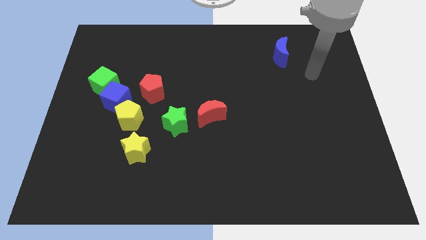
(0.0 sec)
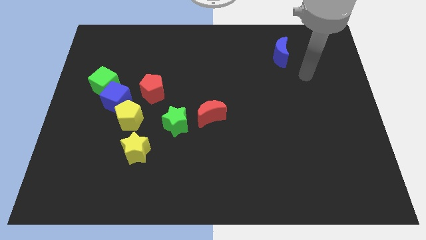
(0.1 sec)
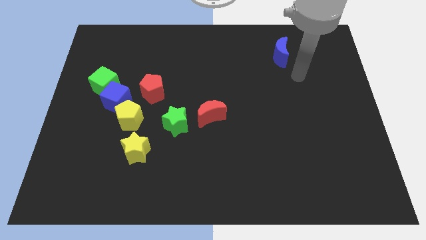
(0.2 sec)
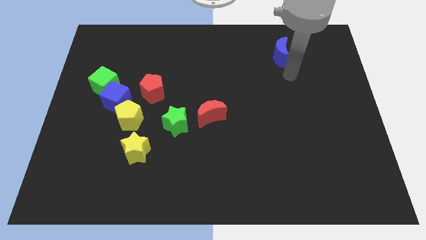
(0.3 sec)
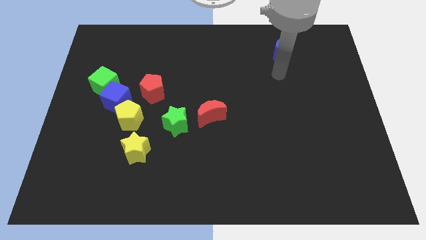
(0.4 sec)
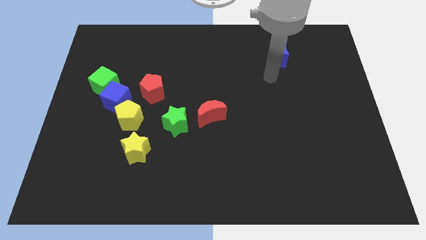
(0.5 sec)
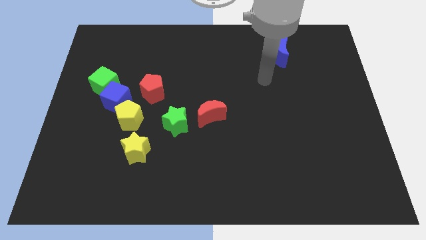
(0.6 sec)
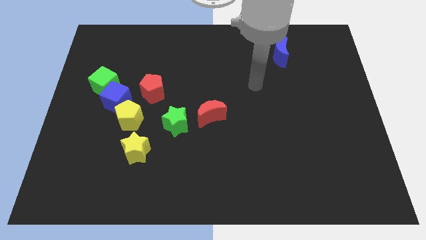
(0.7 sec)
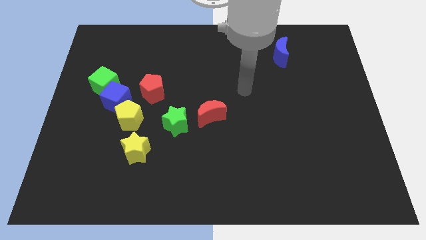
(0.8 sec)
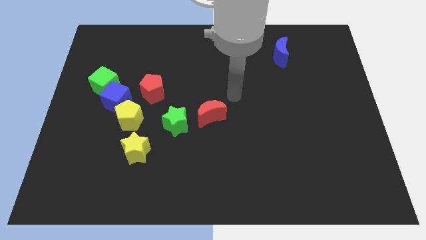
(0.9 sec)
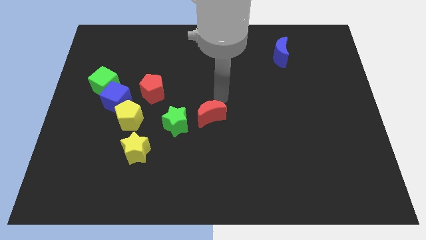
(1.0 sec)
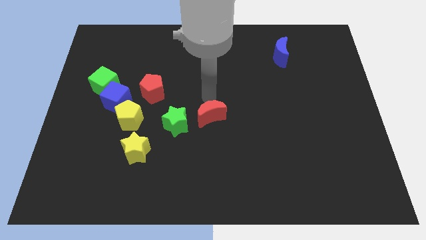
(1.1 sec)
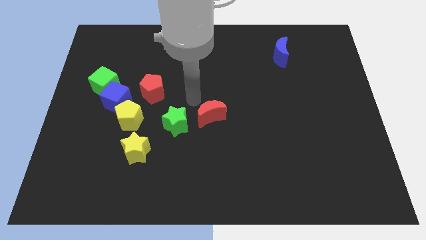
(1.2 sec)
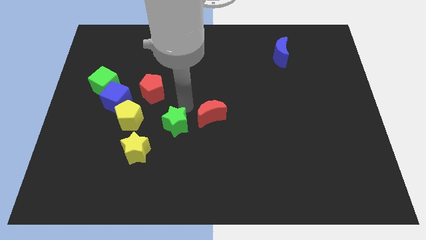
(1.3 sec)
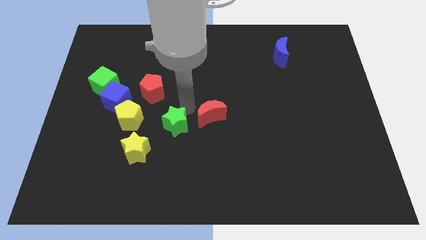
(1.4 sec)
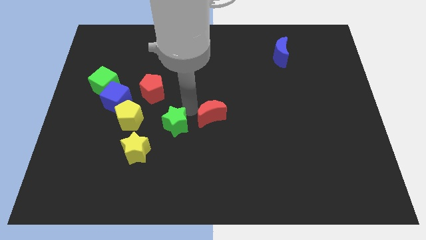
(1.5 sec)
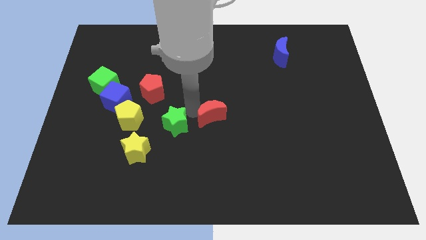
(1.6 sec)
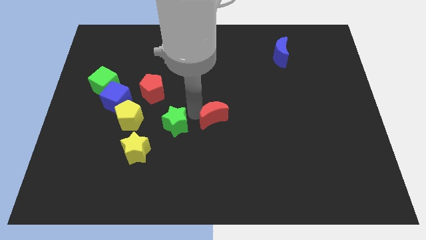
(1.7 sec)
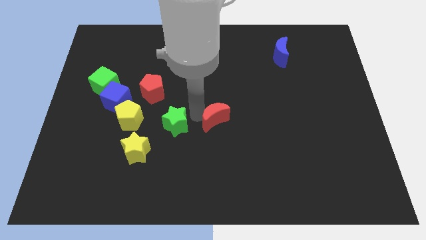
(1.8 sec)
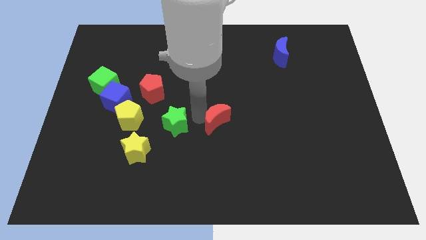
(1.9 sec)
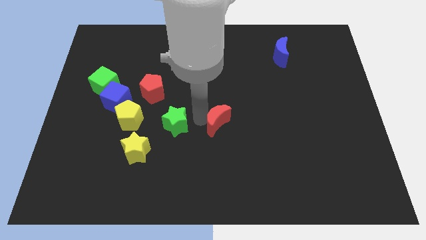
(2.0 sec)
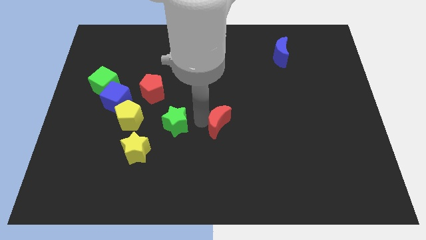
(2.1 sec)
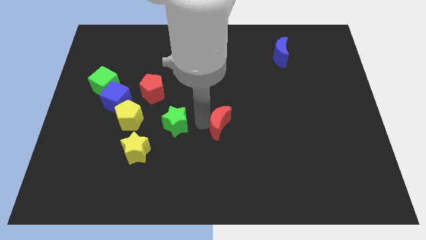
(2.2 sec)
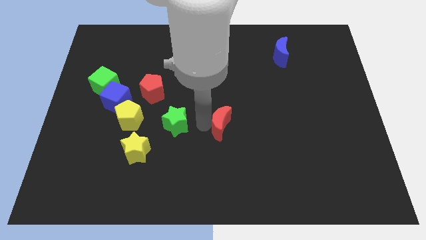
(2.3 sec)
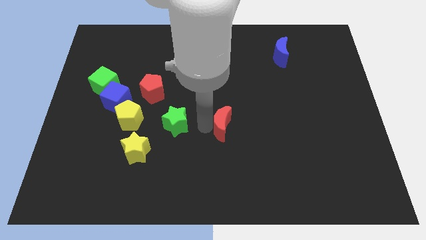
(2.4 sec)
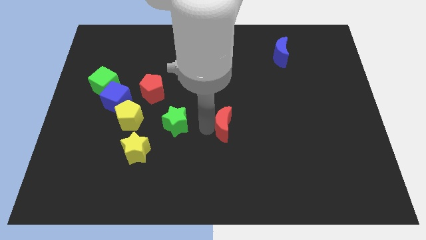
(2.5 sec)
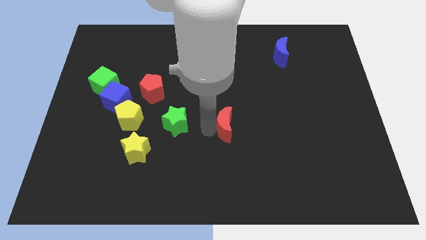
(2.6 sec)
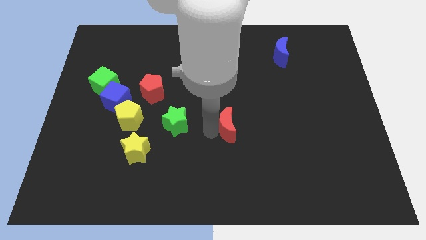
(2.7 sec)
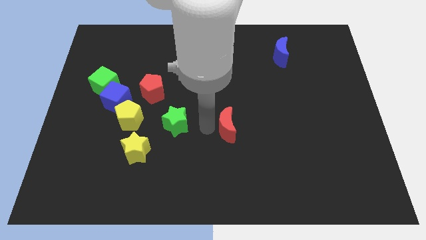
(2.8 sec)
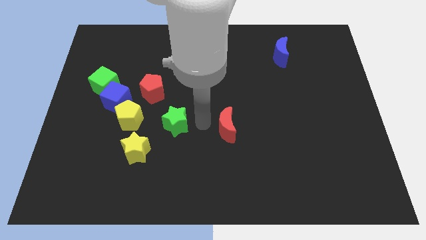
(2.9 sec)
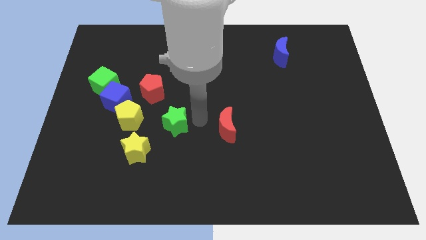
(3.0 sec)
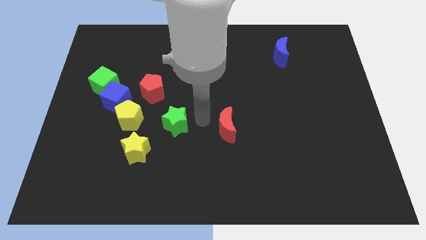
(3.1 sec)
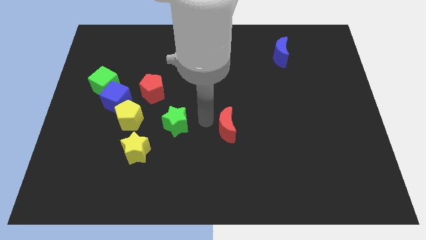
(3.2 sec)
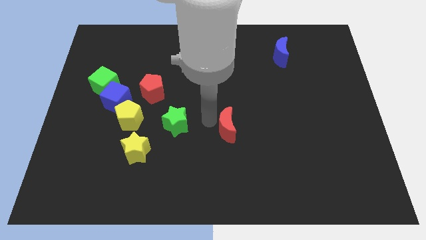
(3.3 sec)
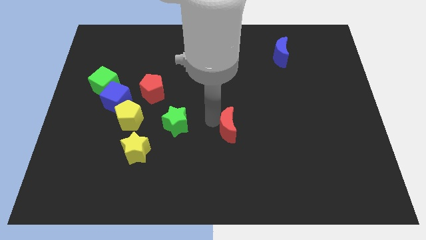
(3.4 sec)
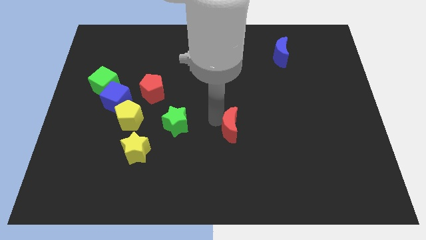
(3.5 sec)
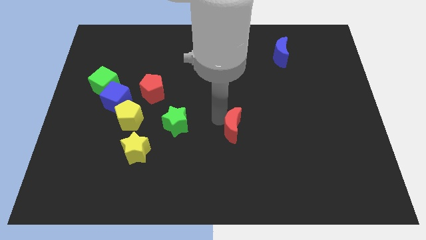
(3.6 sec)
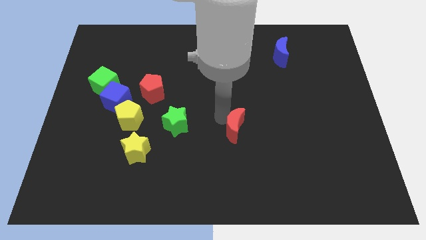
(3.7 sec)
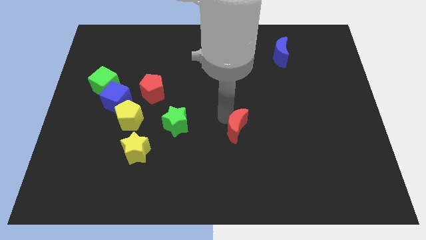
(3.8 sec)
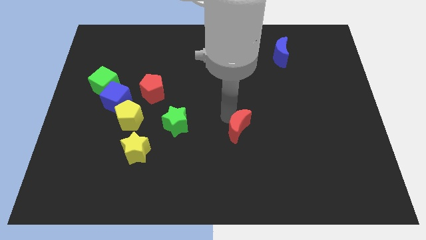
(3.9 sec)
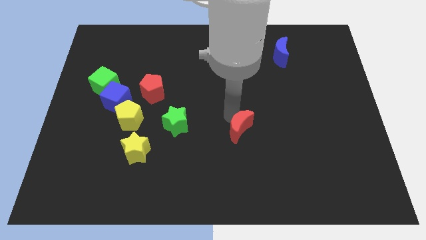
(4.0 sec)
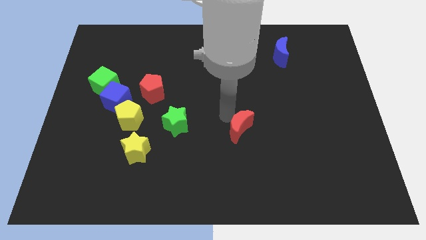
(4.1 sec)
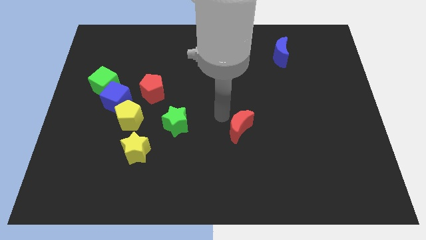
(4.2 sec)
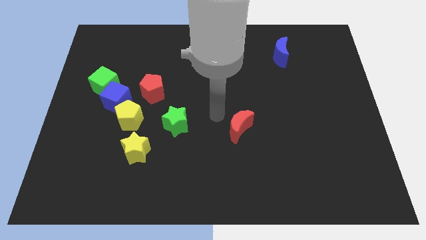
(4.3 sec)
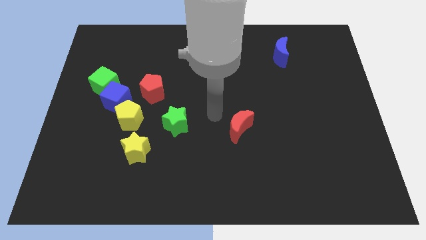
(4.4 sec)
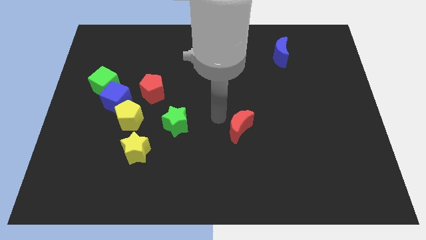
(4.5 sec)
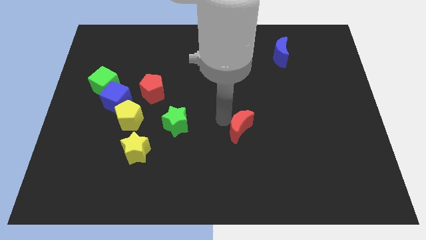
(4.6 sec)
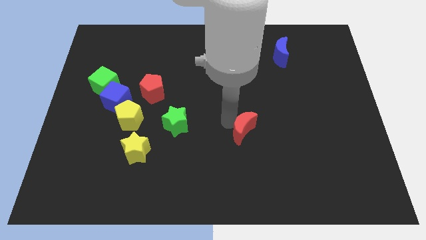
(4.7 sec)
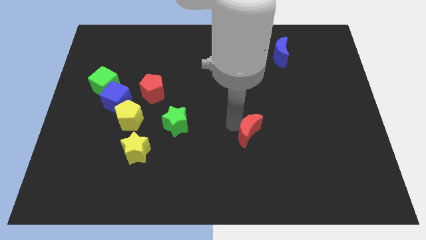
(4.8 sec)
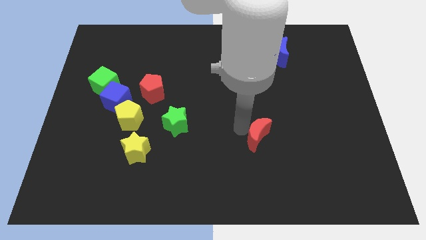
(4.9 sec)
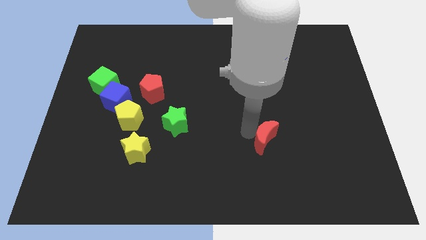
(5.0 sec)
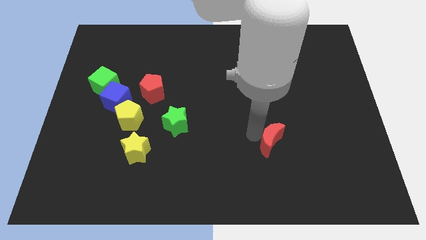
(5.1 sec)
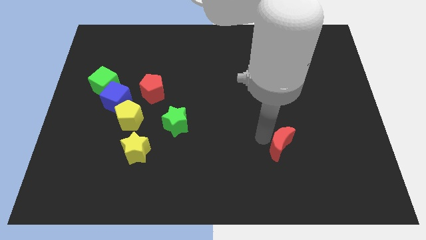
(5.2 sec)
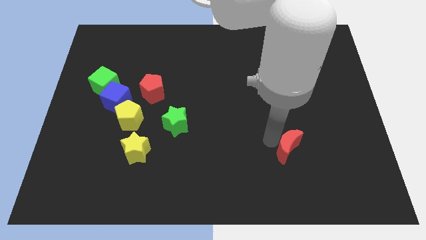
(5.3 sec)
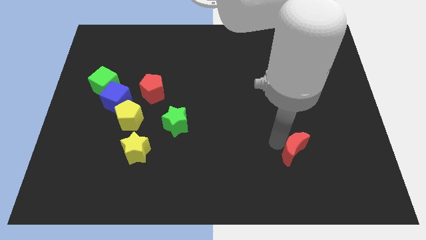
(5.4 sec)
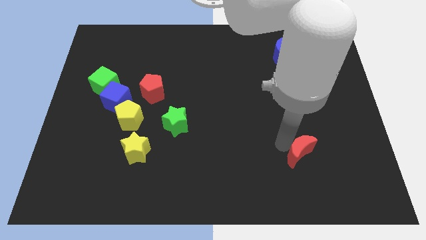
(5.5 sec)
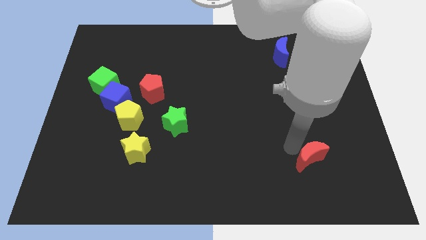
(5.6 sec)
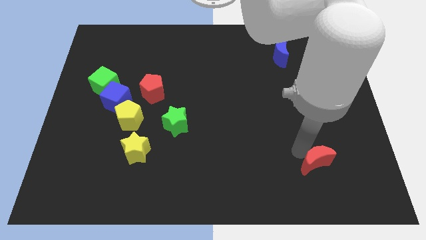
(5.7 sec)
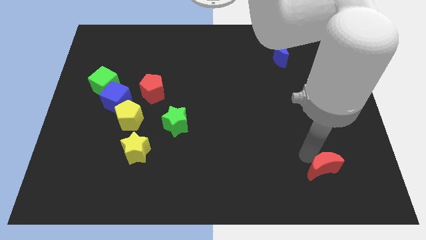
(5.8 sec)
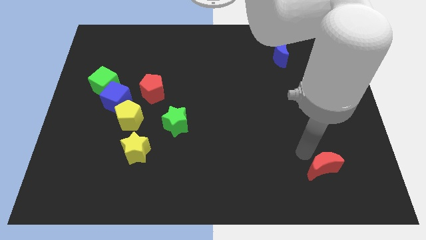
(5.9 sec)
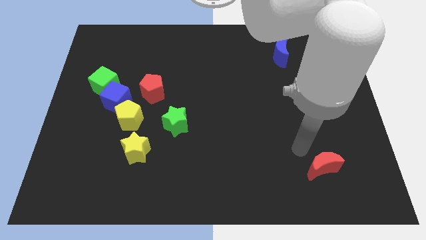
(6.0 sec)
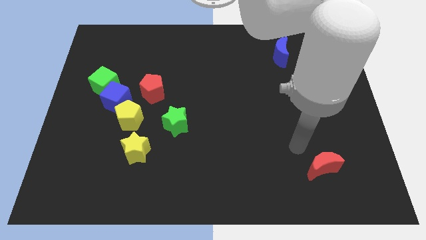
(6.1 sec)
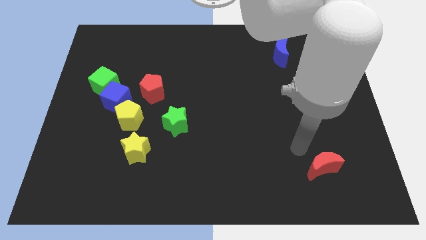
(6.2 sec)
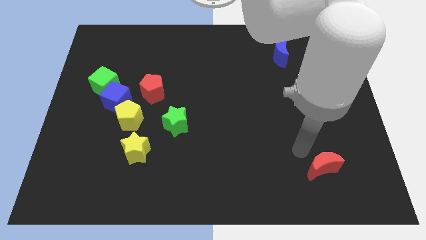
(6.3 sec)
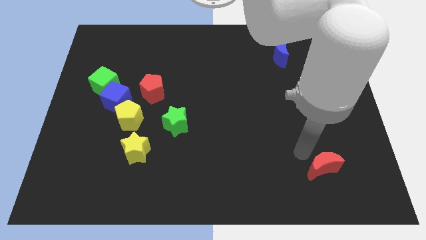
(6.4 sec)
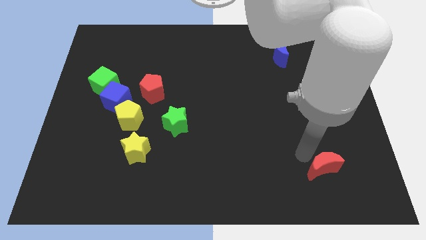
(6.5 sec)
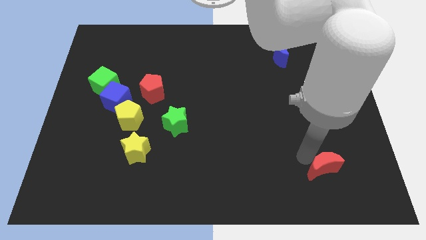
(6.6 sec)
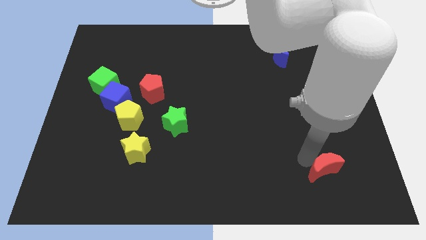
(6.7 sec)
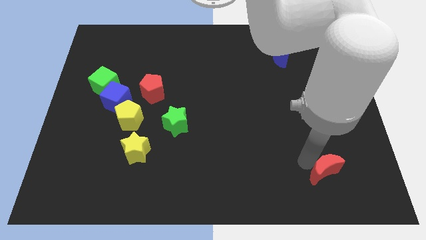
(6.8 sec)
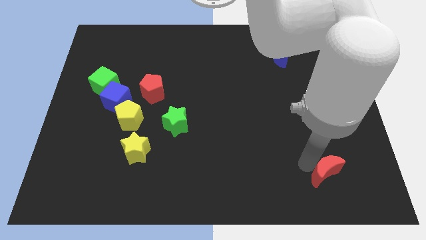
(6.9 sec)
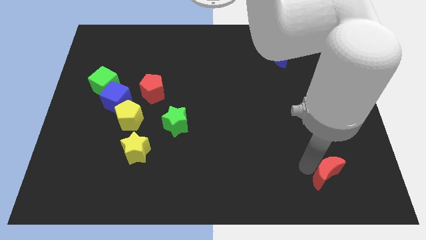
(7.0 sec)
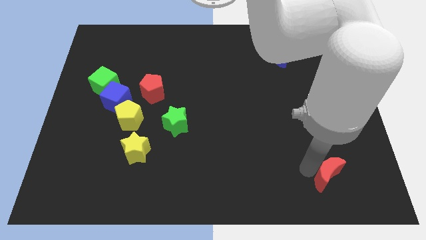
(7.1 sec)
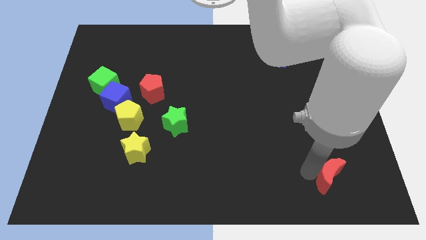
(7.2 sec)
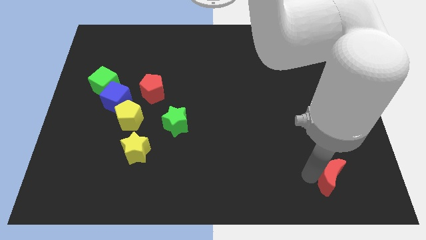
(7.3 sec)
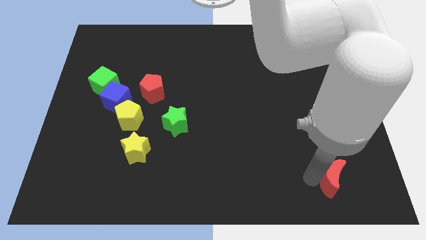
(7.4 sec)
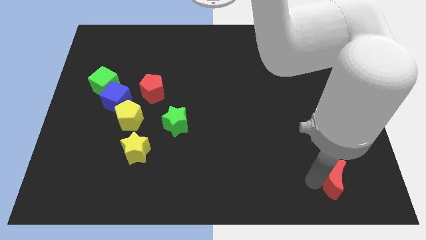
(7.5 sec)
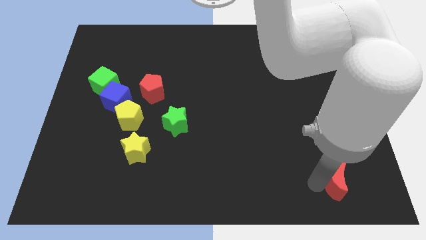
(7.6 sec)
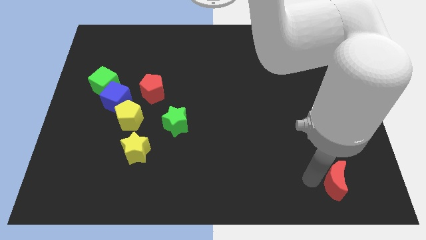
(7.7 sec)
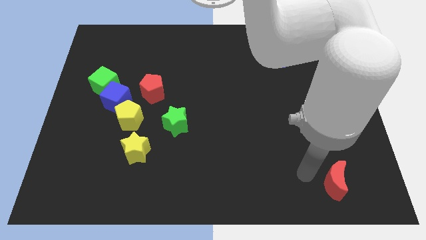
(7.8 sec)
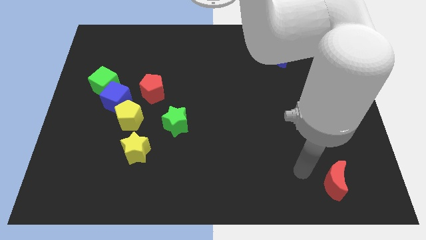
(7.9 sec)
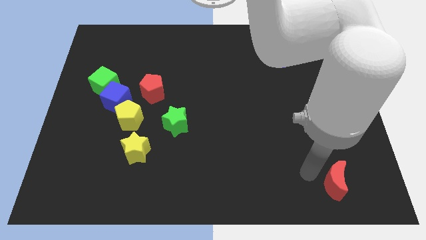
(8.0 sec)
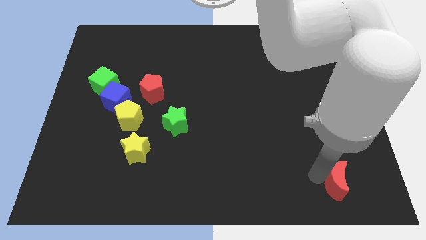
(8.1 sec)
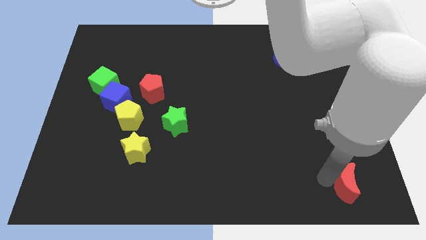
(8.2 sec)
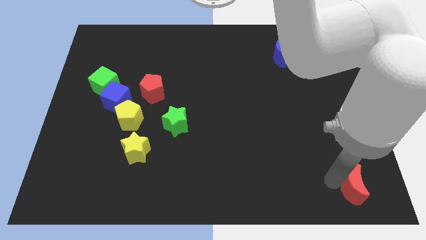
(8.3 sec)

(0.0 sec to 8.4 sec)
slide the red moon to the lower right corner
